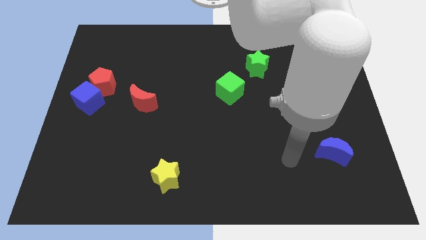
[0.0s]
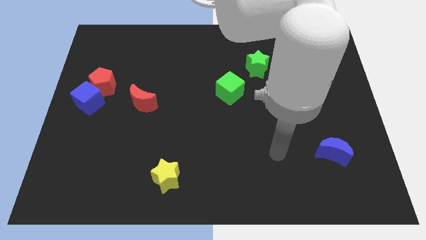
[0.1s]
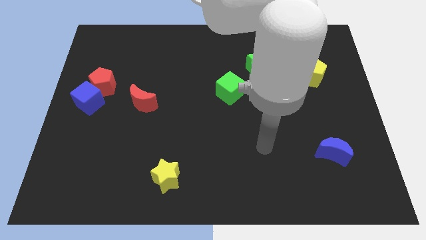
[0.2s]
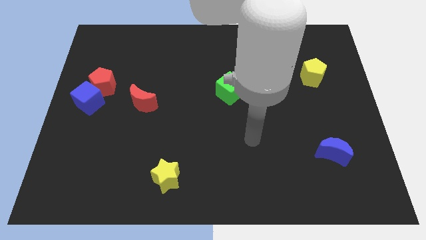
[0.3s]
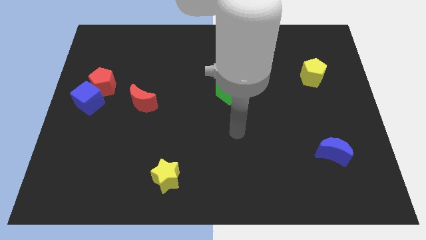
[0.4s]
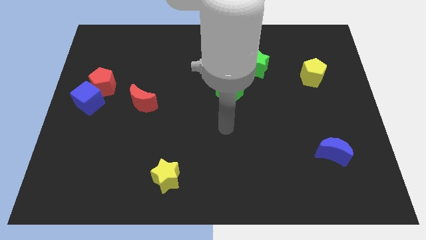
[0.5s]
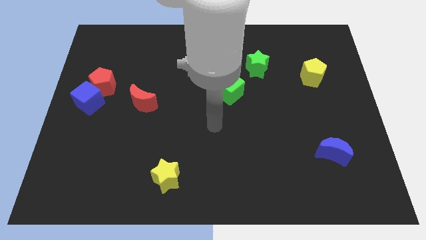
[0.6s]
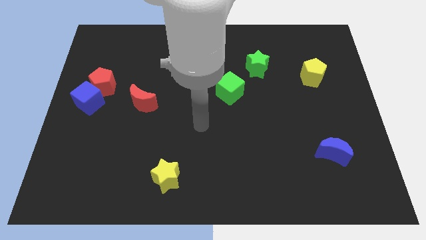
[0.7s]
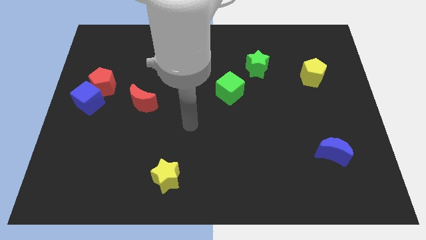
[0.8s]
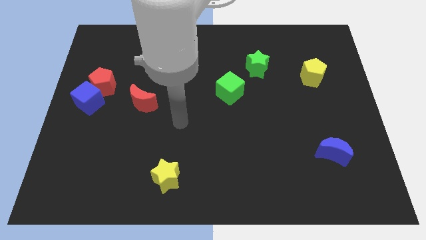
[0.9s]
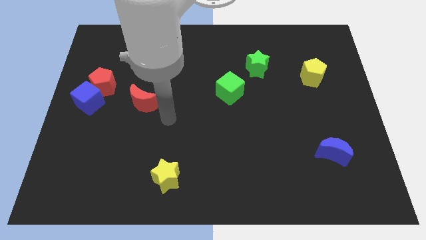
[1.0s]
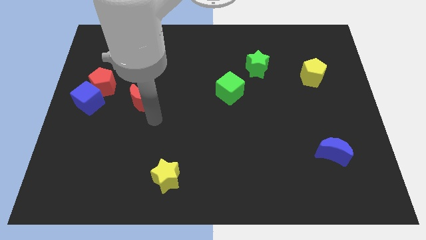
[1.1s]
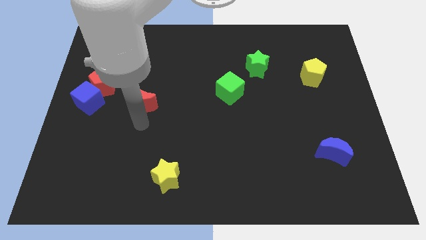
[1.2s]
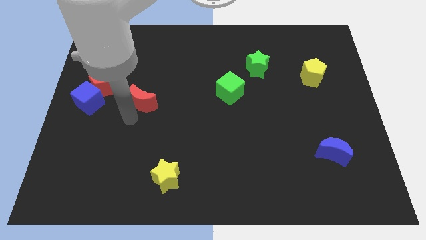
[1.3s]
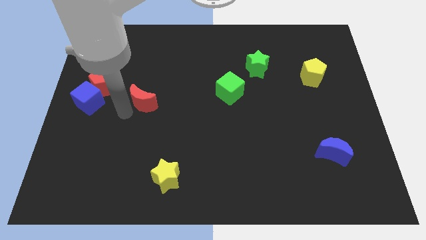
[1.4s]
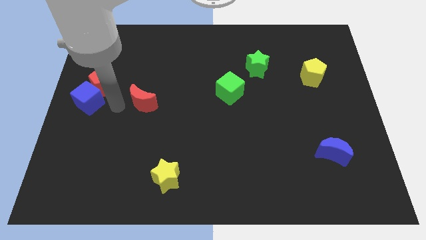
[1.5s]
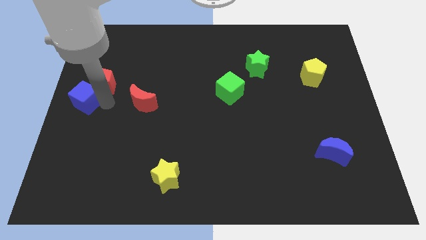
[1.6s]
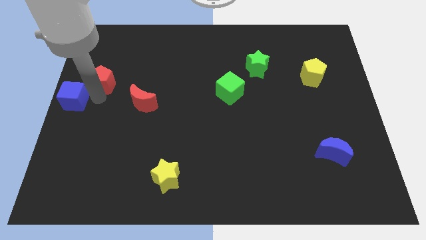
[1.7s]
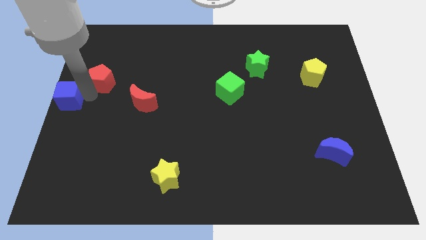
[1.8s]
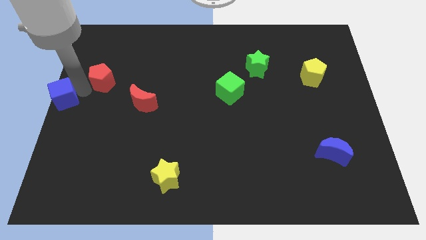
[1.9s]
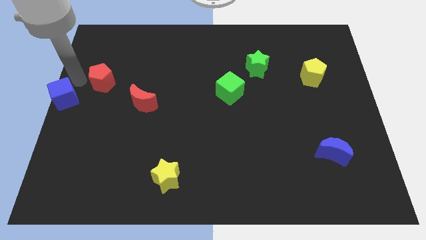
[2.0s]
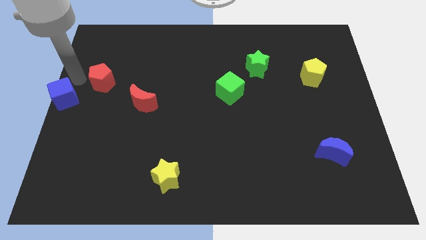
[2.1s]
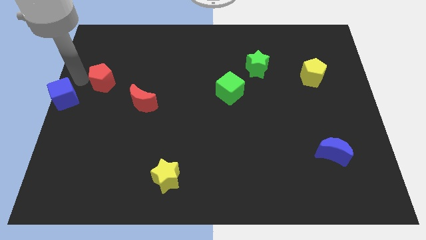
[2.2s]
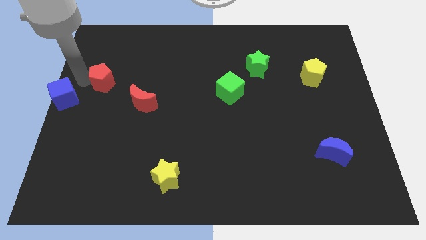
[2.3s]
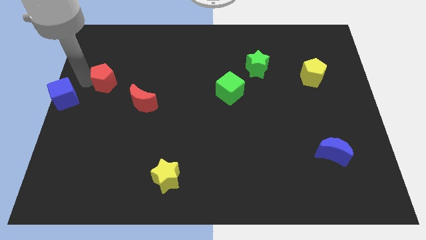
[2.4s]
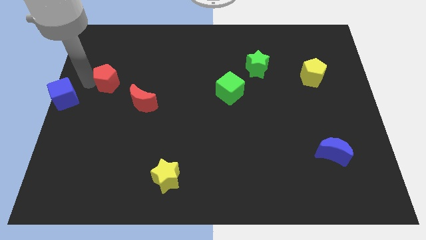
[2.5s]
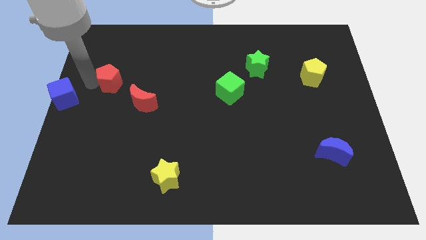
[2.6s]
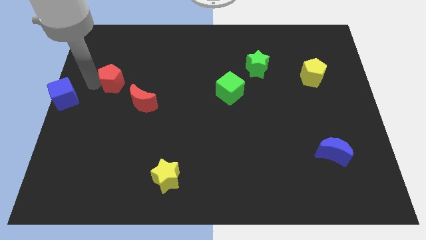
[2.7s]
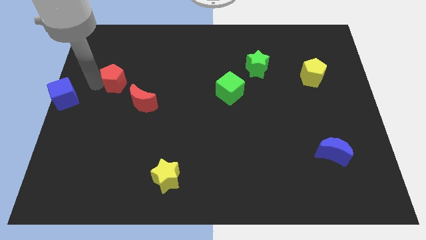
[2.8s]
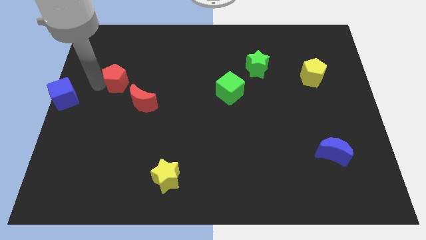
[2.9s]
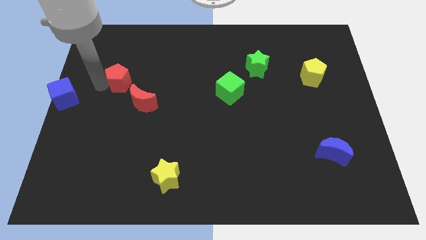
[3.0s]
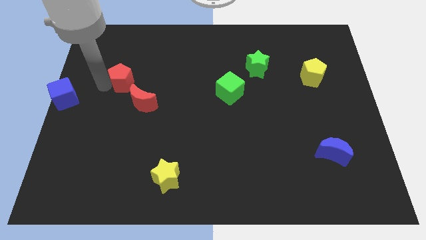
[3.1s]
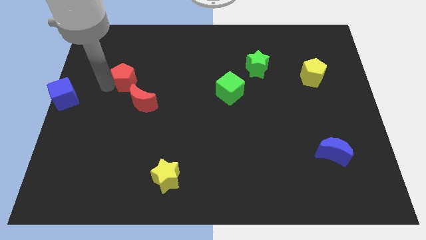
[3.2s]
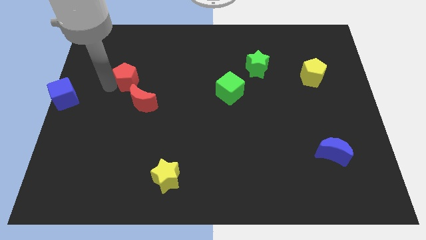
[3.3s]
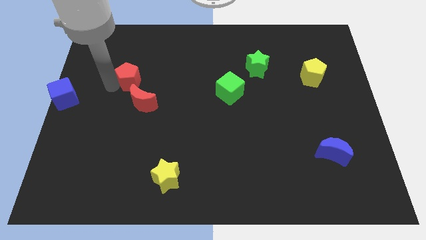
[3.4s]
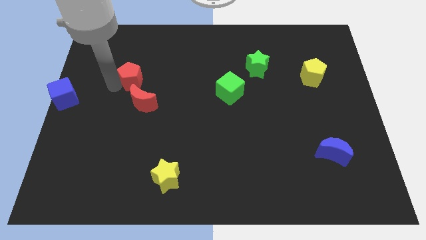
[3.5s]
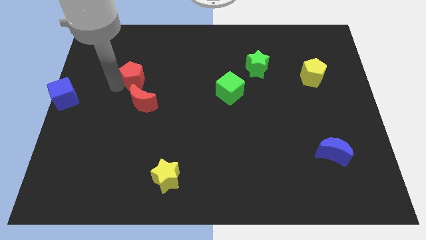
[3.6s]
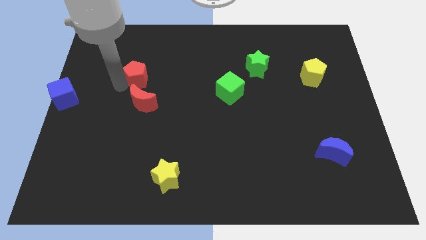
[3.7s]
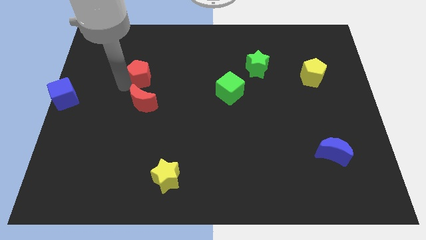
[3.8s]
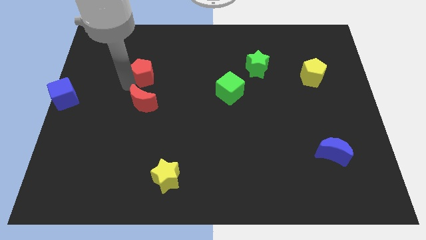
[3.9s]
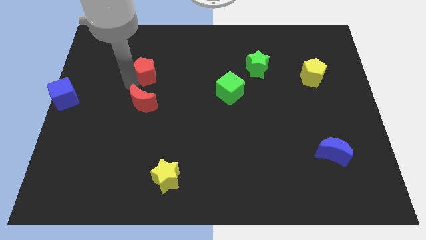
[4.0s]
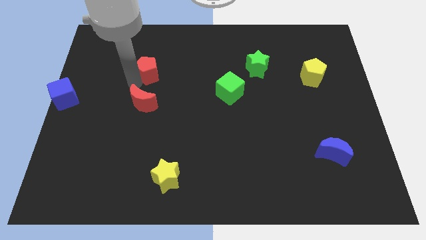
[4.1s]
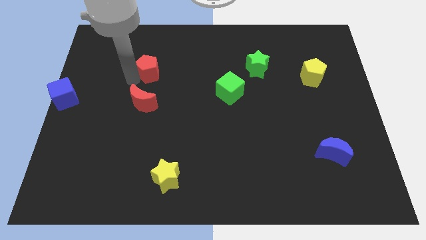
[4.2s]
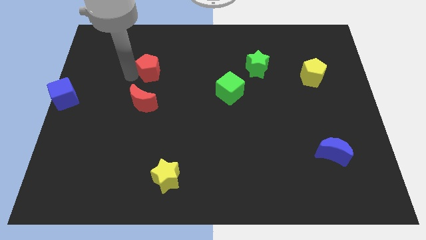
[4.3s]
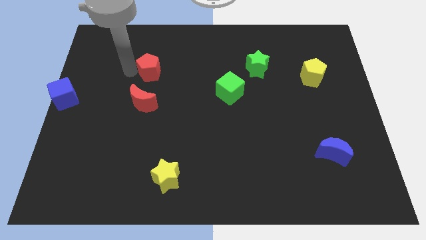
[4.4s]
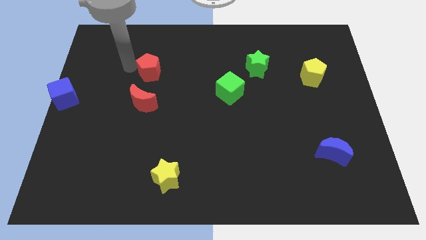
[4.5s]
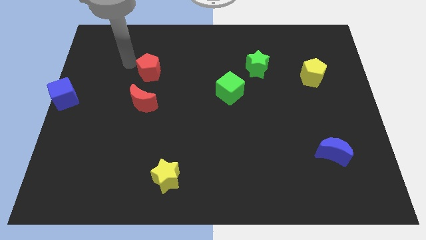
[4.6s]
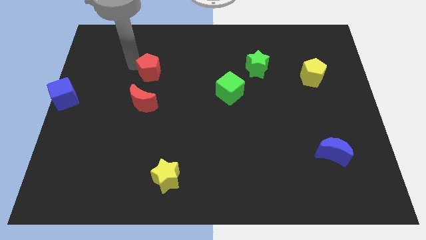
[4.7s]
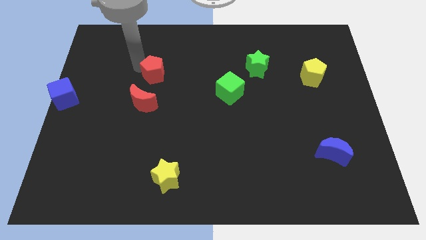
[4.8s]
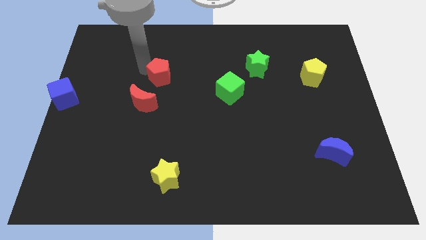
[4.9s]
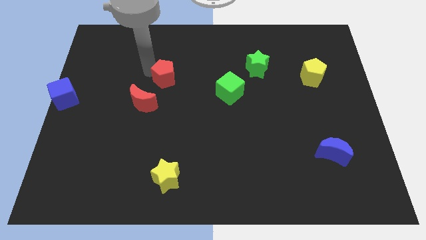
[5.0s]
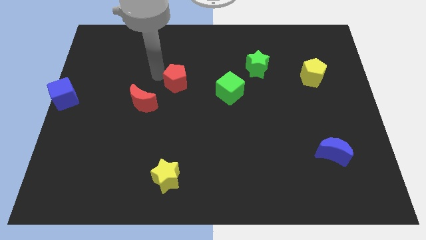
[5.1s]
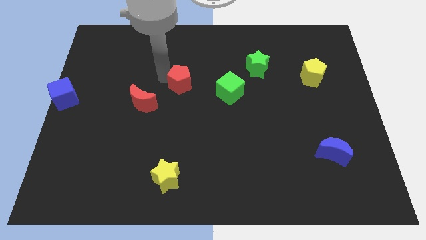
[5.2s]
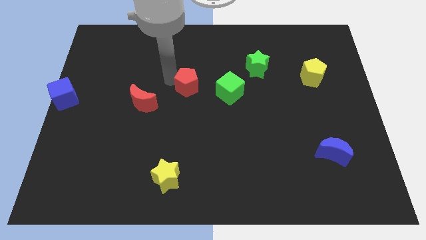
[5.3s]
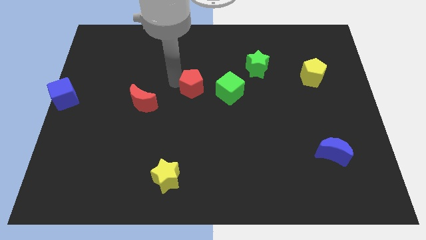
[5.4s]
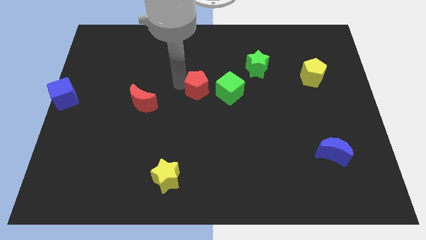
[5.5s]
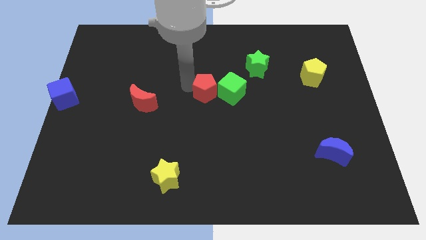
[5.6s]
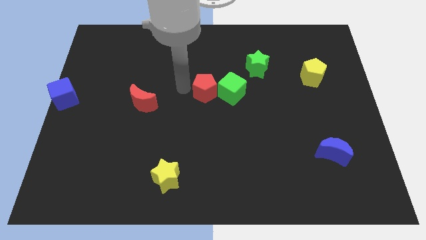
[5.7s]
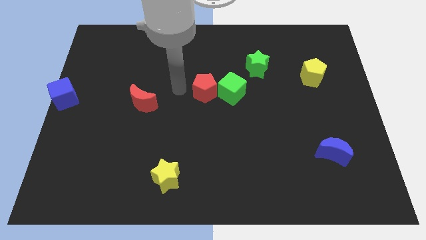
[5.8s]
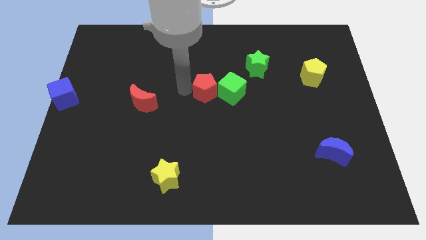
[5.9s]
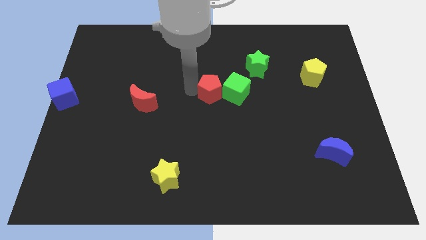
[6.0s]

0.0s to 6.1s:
put the red pentagon to the green cube

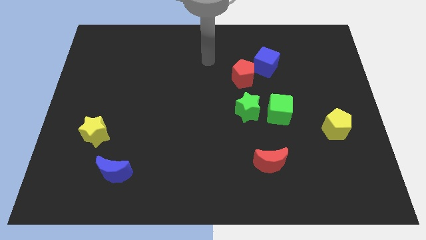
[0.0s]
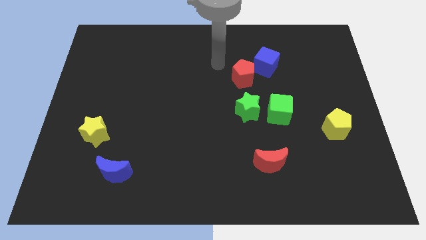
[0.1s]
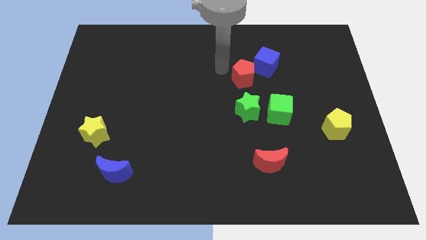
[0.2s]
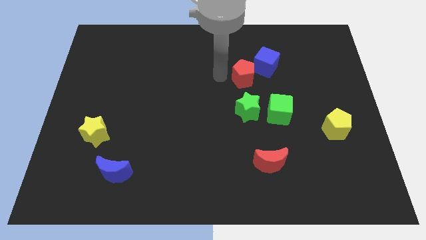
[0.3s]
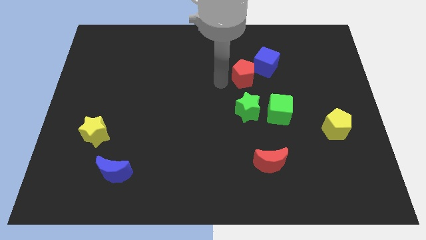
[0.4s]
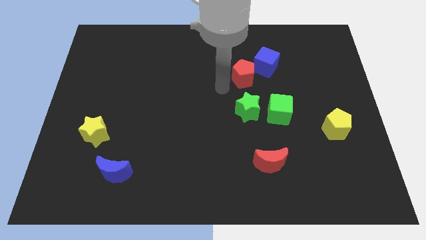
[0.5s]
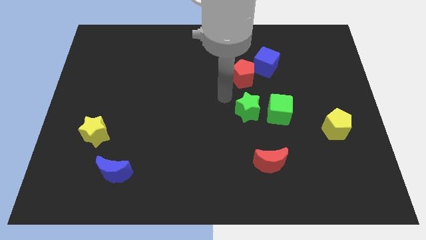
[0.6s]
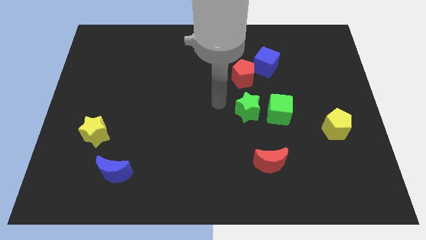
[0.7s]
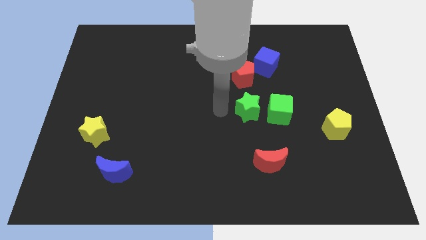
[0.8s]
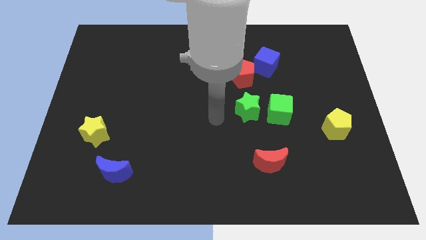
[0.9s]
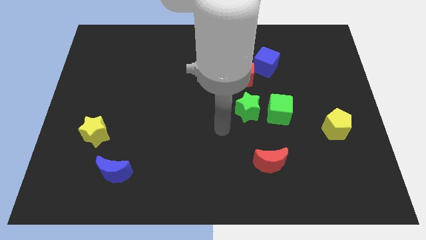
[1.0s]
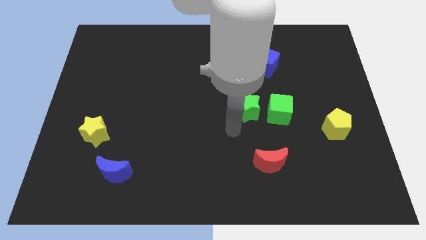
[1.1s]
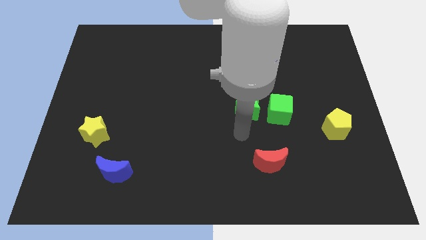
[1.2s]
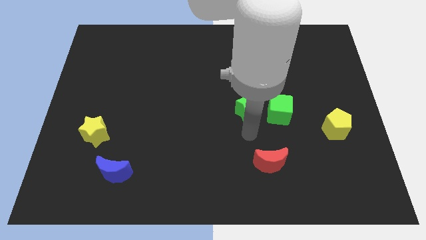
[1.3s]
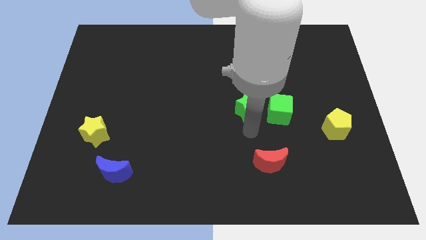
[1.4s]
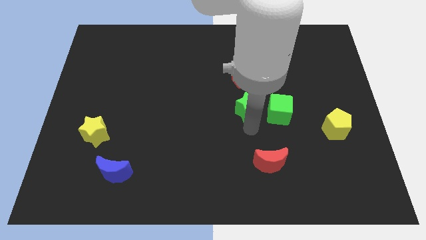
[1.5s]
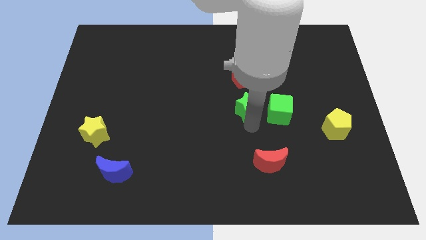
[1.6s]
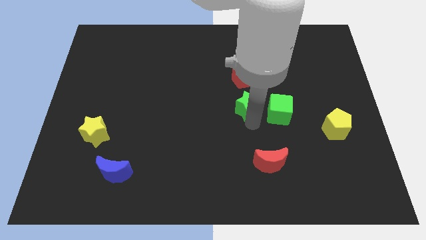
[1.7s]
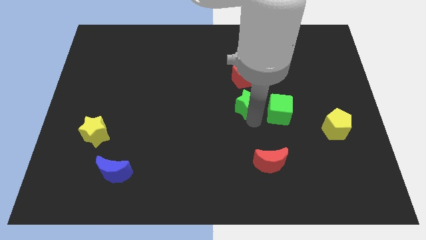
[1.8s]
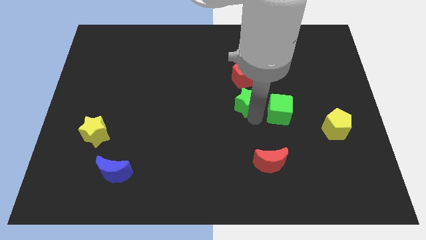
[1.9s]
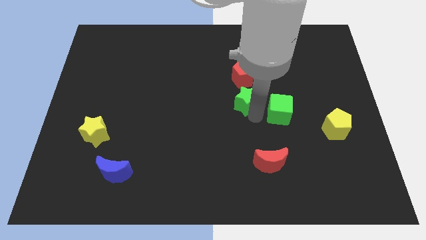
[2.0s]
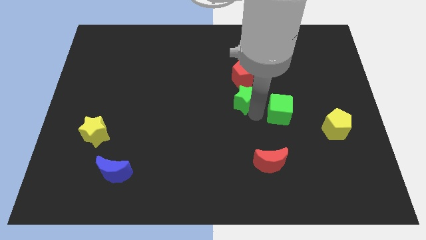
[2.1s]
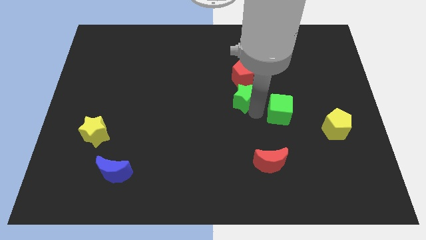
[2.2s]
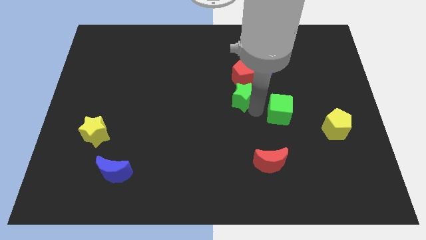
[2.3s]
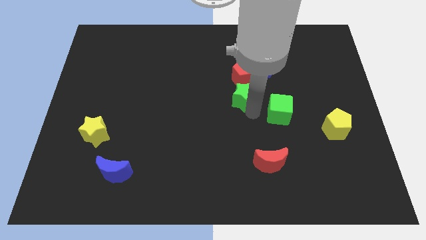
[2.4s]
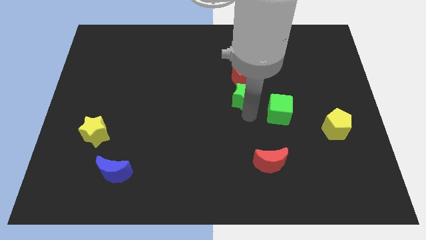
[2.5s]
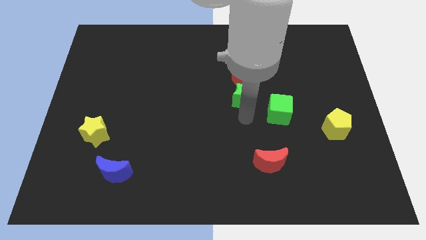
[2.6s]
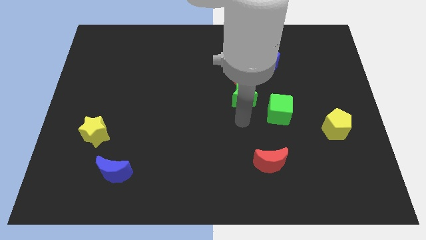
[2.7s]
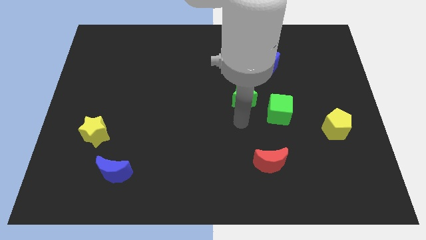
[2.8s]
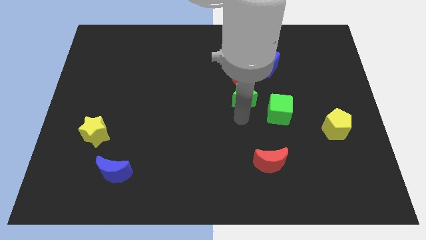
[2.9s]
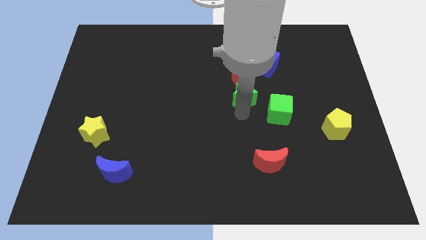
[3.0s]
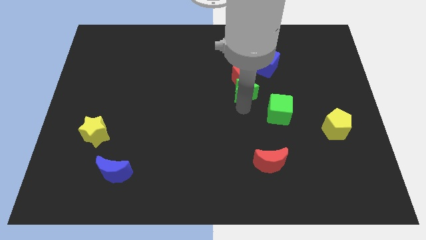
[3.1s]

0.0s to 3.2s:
push the green star to the red pentagon
